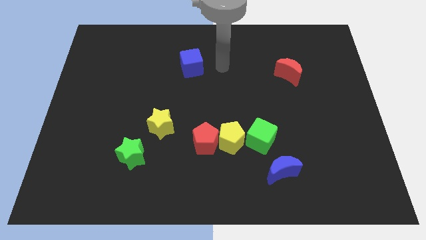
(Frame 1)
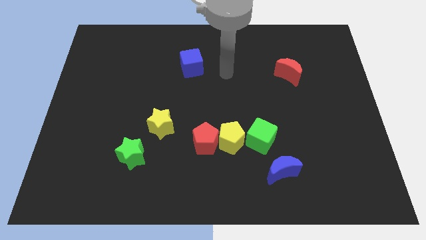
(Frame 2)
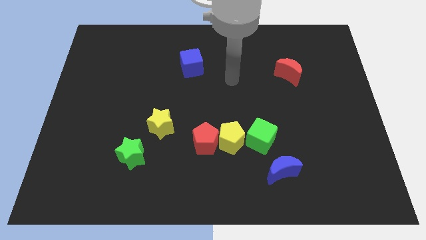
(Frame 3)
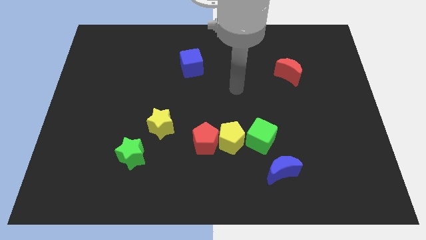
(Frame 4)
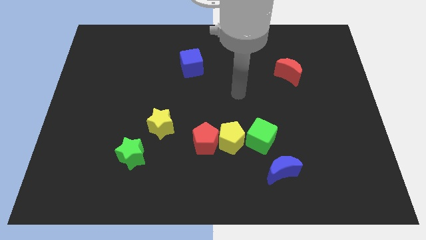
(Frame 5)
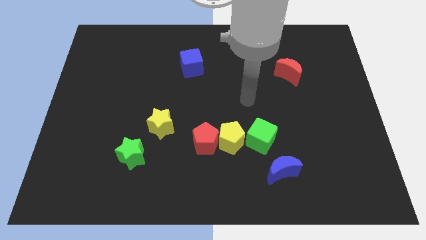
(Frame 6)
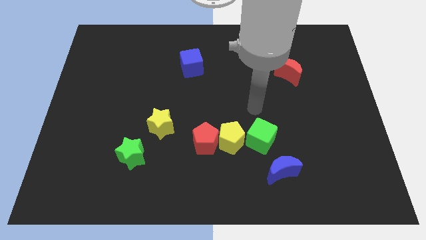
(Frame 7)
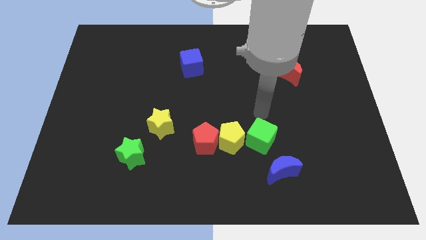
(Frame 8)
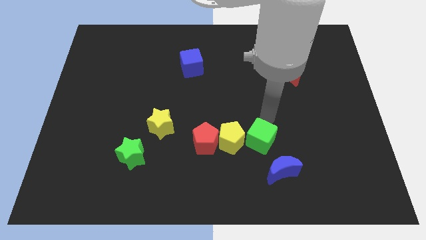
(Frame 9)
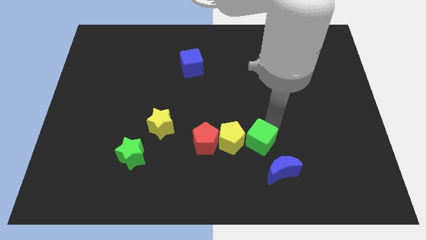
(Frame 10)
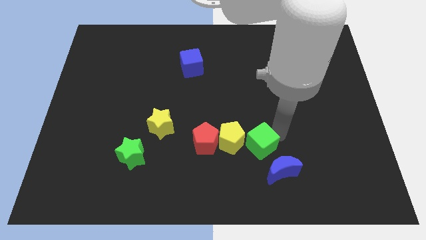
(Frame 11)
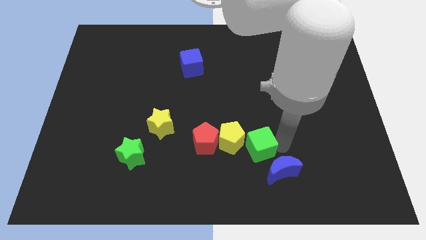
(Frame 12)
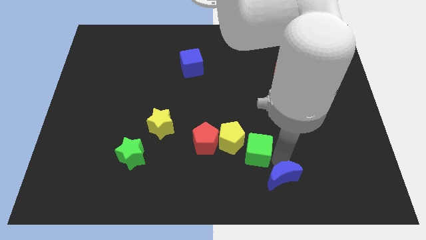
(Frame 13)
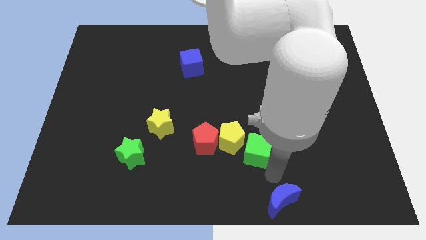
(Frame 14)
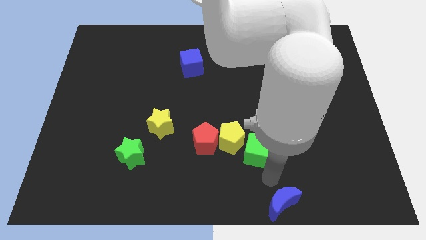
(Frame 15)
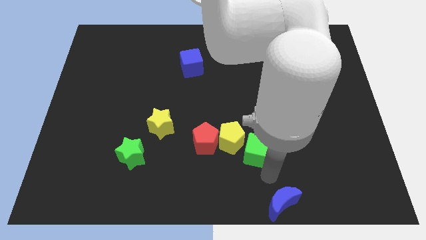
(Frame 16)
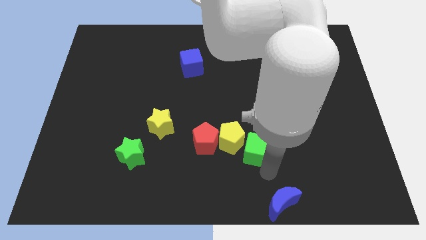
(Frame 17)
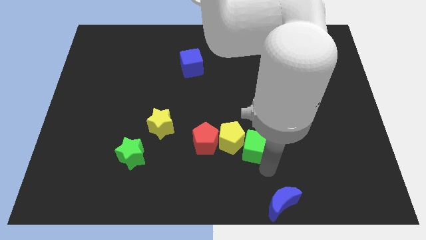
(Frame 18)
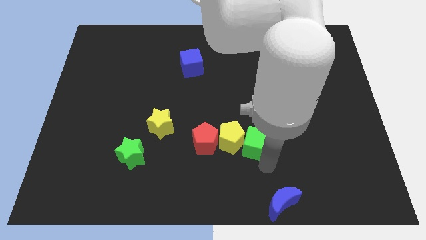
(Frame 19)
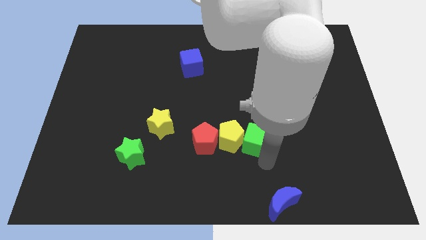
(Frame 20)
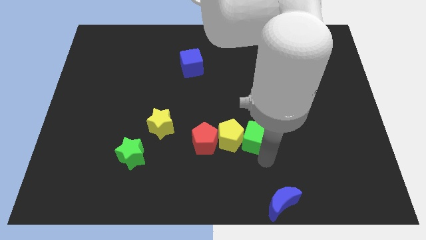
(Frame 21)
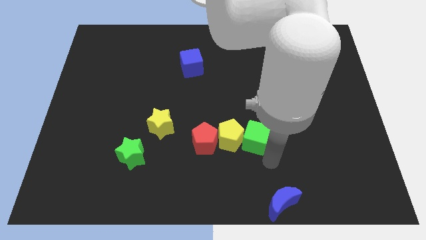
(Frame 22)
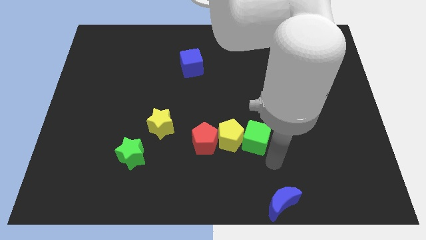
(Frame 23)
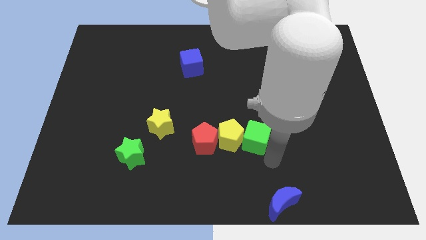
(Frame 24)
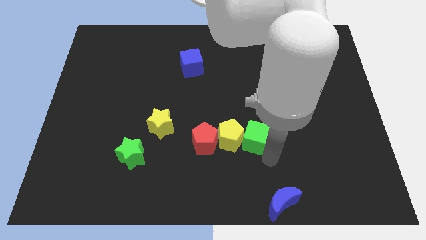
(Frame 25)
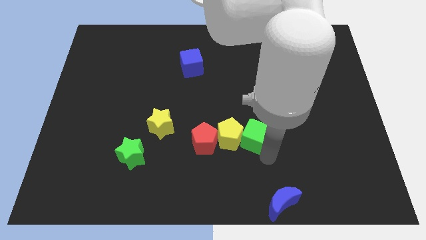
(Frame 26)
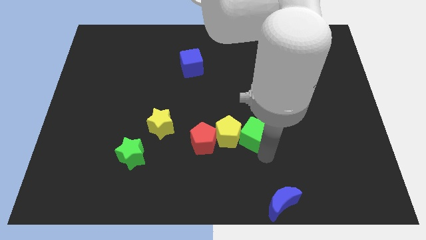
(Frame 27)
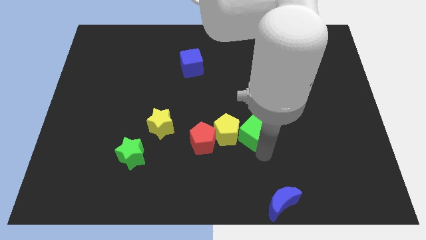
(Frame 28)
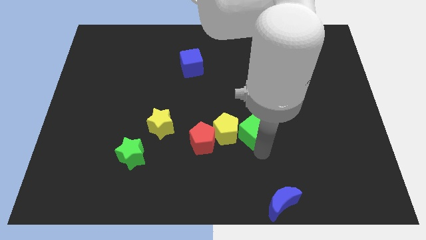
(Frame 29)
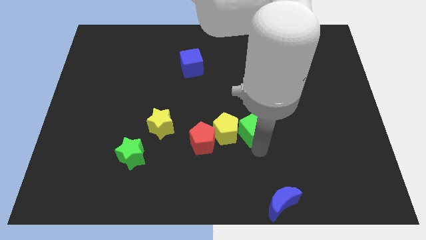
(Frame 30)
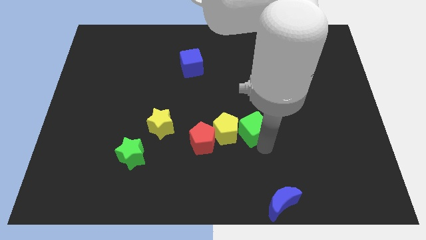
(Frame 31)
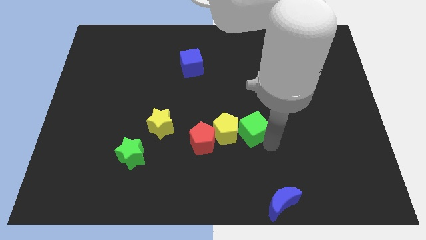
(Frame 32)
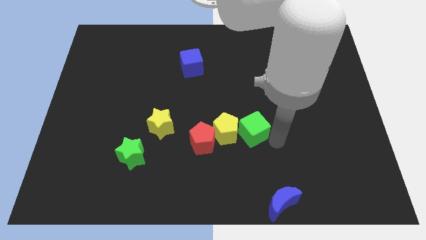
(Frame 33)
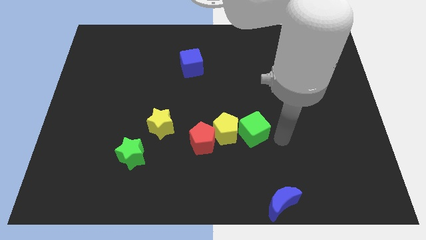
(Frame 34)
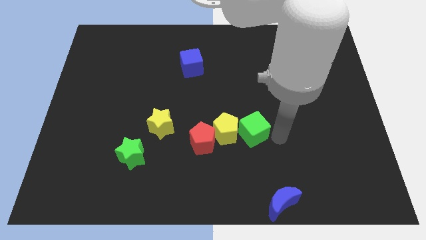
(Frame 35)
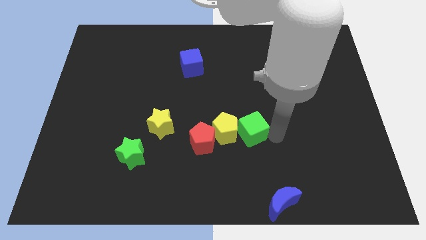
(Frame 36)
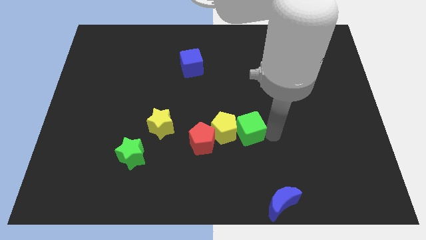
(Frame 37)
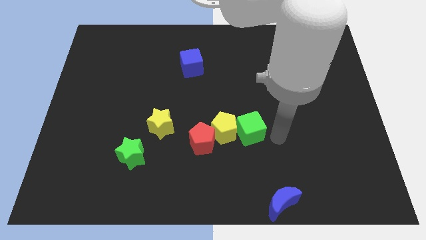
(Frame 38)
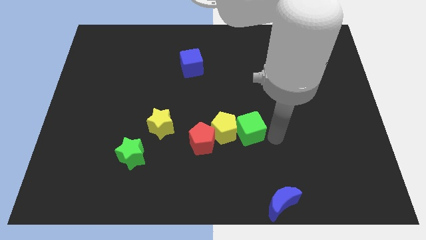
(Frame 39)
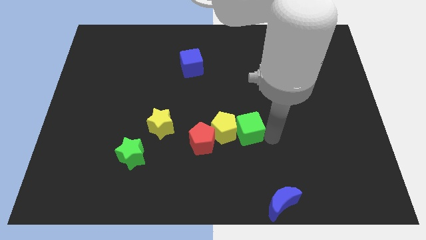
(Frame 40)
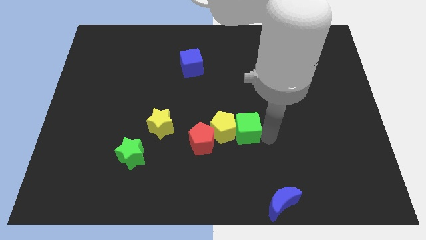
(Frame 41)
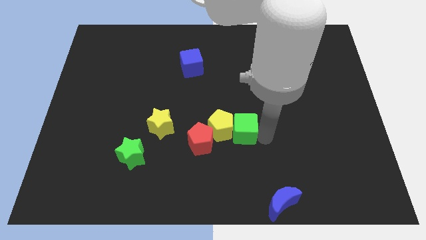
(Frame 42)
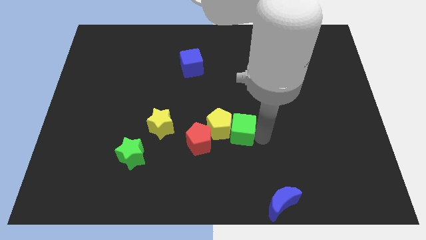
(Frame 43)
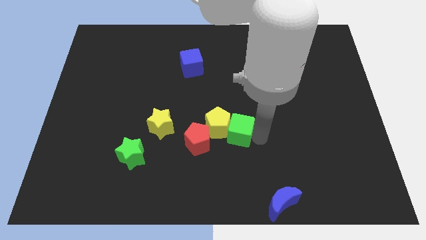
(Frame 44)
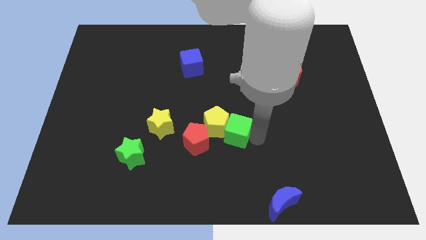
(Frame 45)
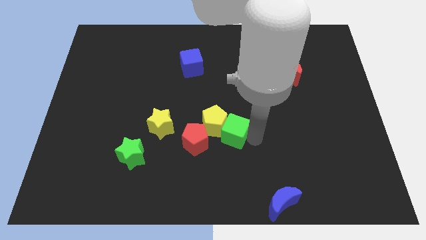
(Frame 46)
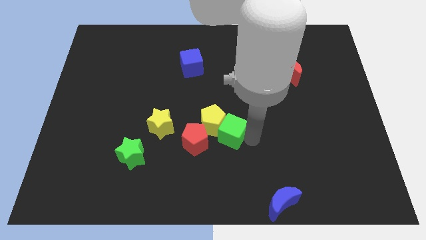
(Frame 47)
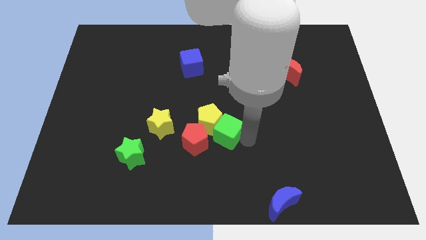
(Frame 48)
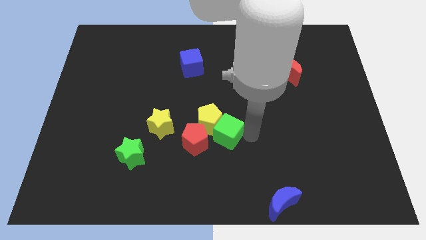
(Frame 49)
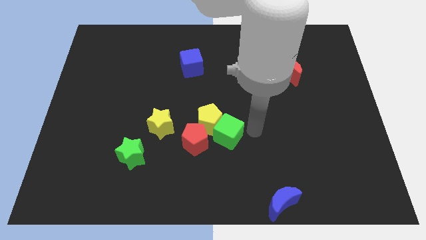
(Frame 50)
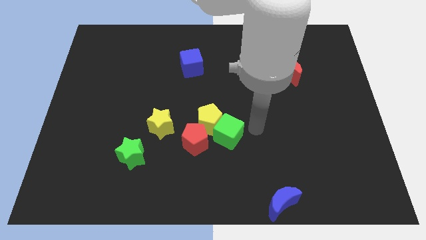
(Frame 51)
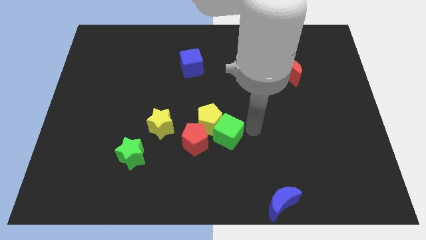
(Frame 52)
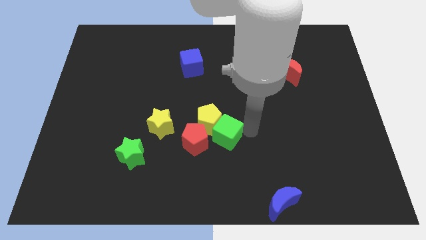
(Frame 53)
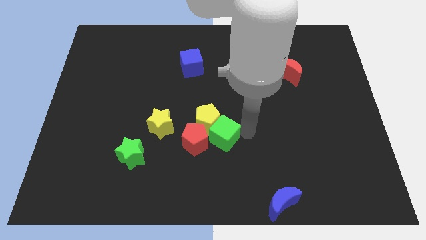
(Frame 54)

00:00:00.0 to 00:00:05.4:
move the green cube next to the red pentagon
